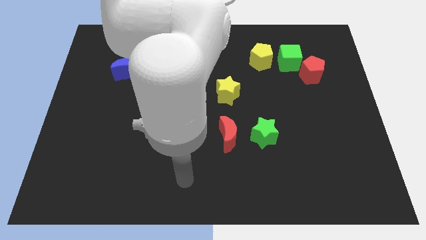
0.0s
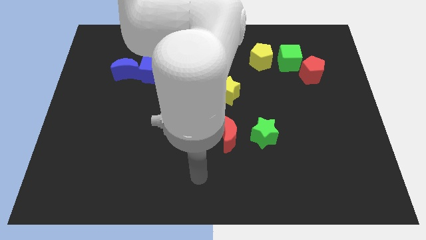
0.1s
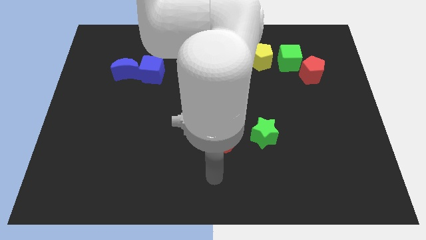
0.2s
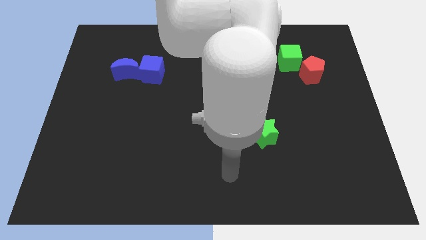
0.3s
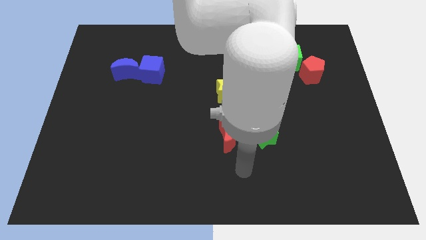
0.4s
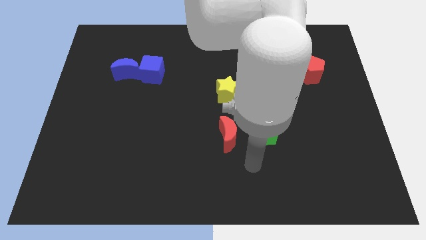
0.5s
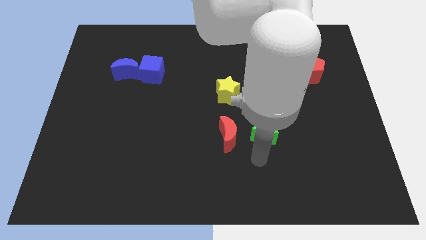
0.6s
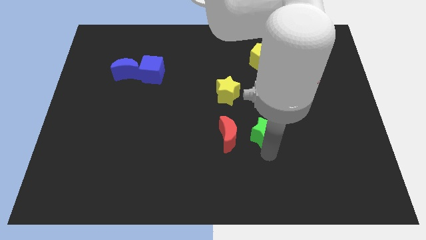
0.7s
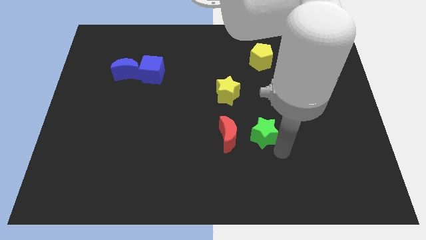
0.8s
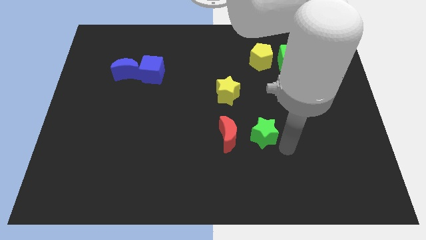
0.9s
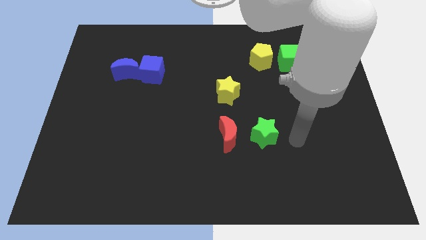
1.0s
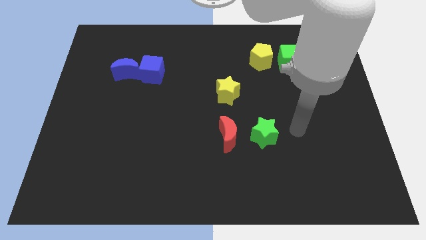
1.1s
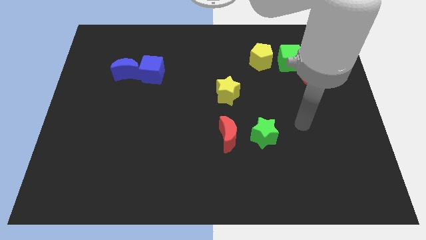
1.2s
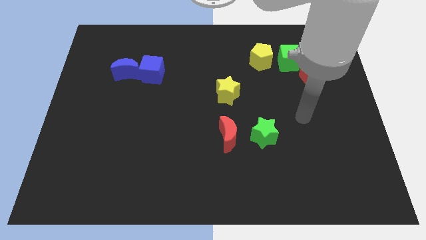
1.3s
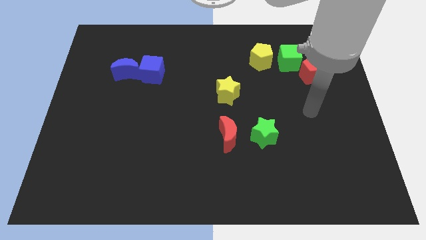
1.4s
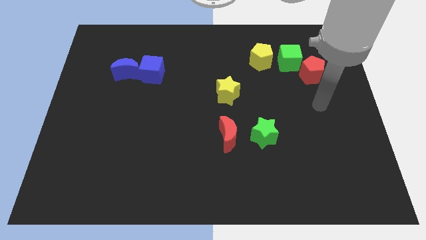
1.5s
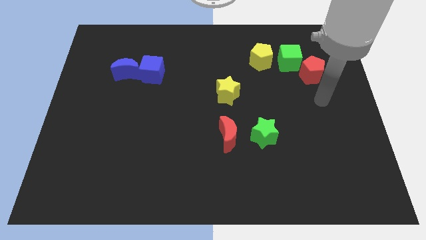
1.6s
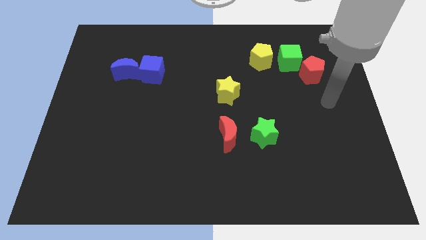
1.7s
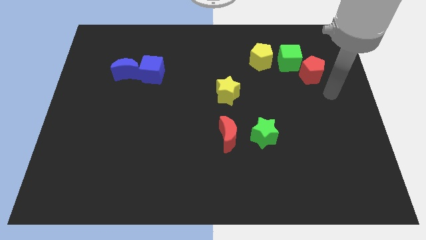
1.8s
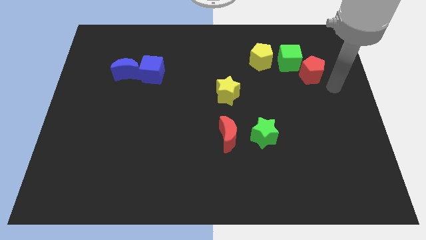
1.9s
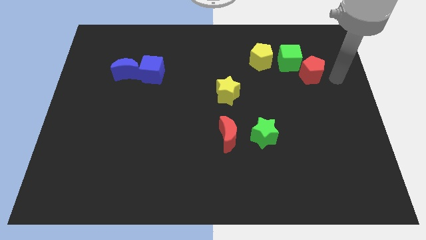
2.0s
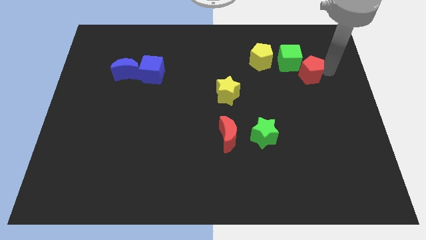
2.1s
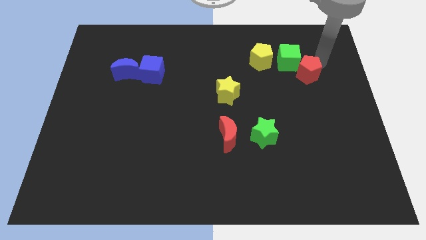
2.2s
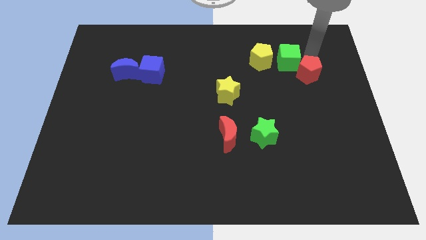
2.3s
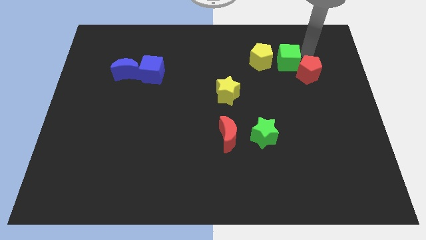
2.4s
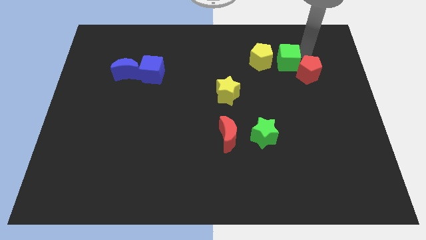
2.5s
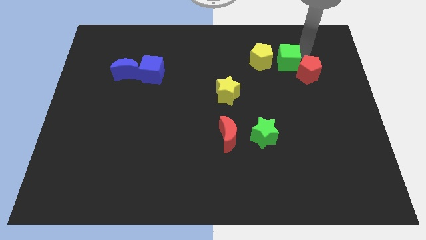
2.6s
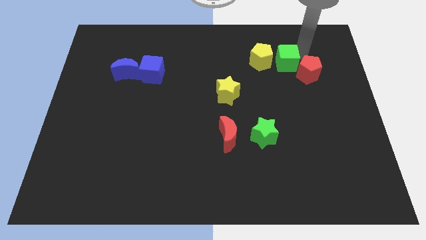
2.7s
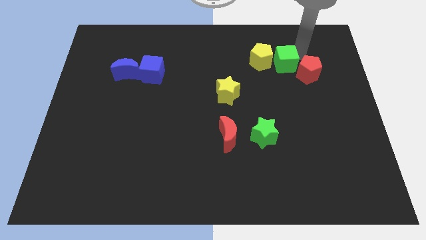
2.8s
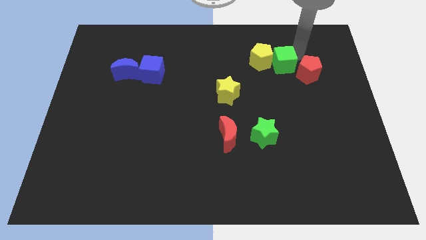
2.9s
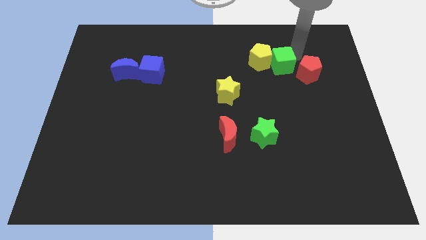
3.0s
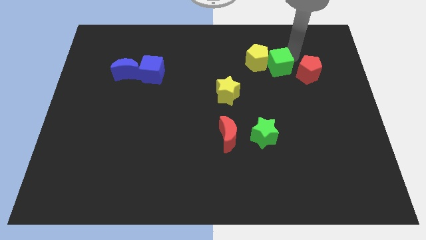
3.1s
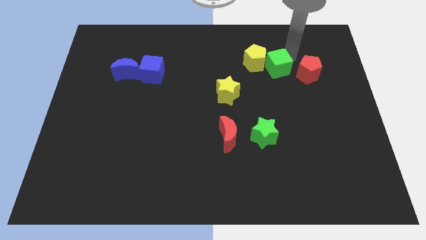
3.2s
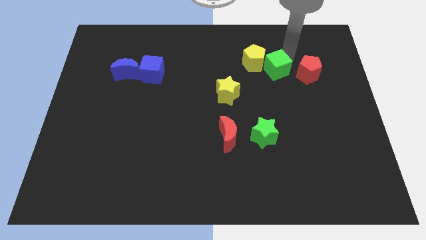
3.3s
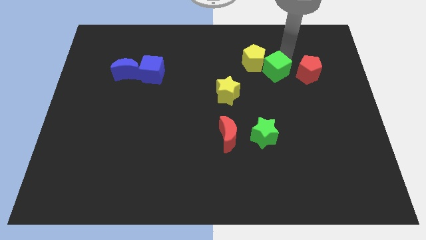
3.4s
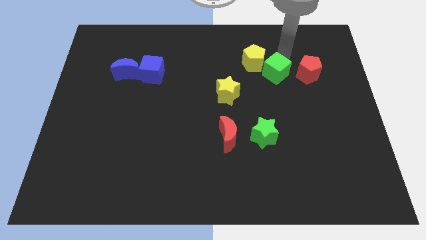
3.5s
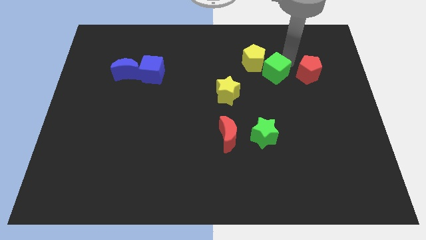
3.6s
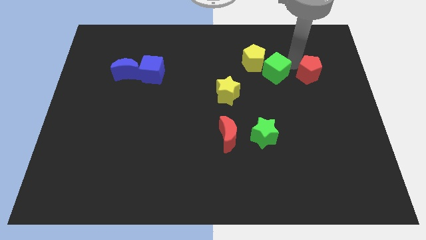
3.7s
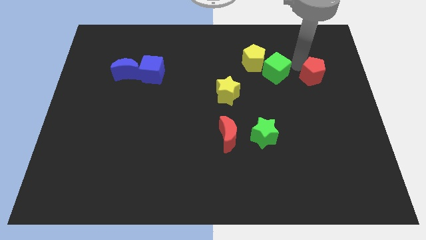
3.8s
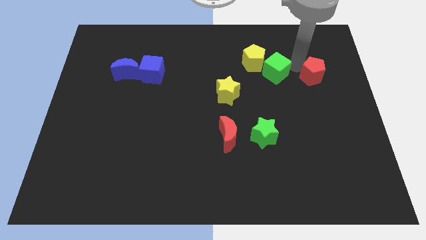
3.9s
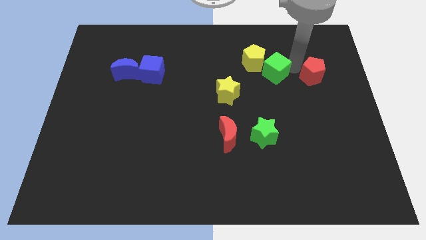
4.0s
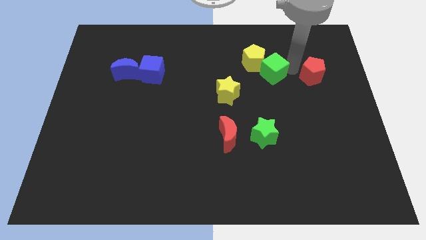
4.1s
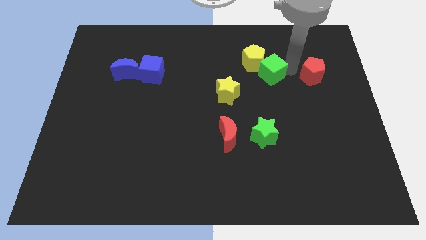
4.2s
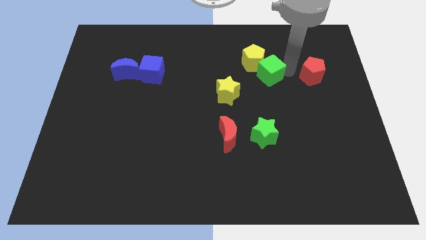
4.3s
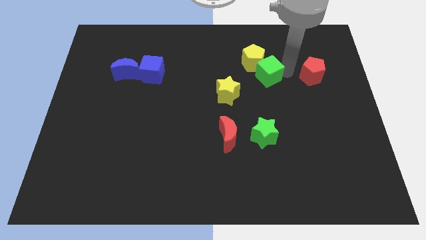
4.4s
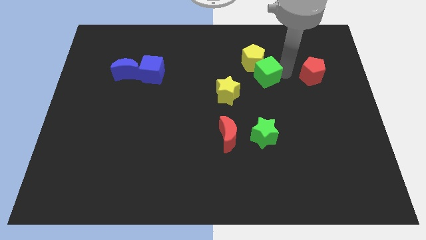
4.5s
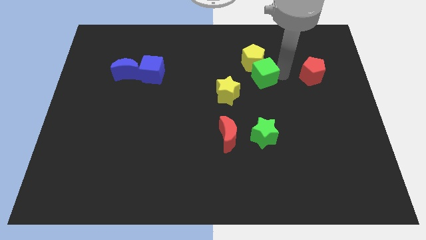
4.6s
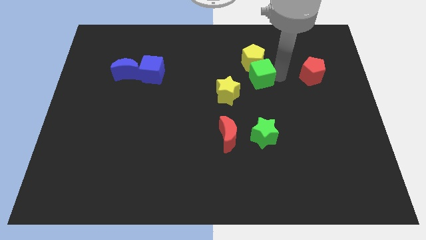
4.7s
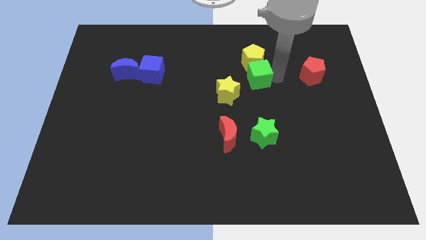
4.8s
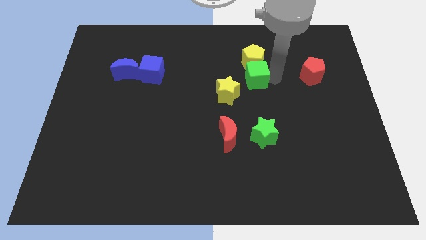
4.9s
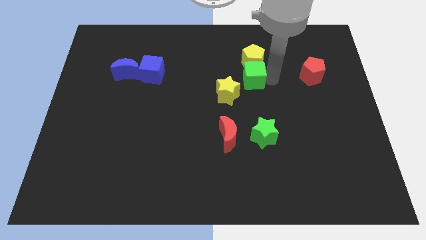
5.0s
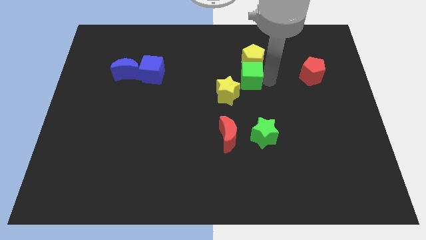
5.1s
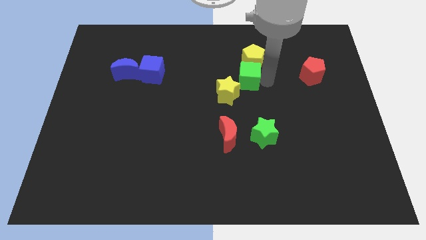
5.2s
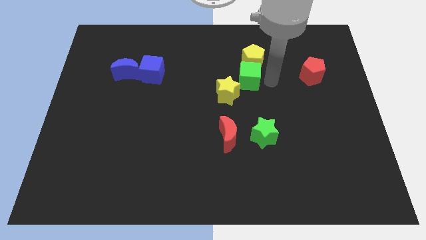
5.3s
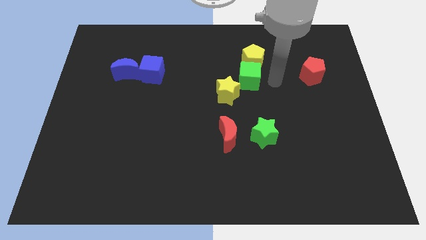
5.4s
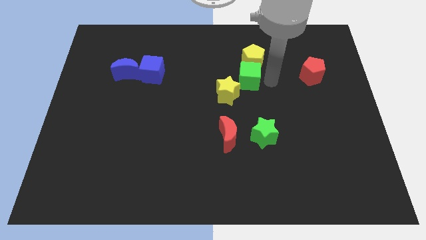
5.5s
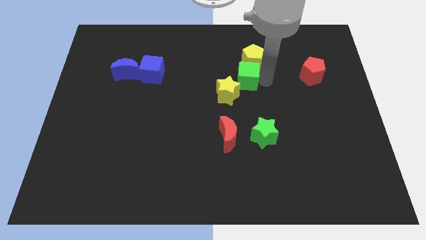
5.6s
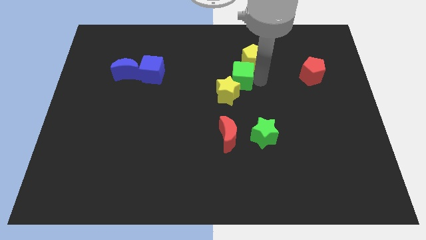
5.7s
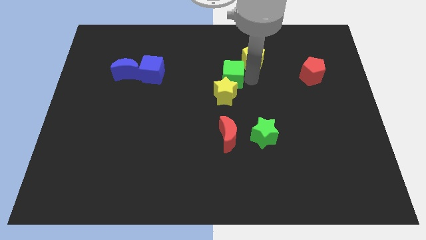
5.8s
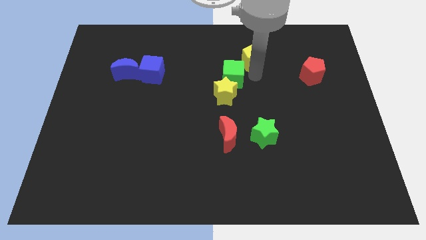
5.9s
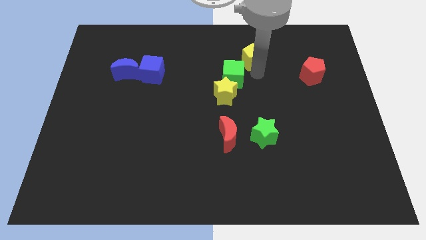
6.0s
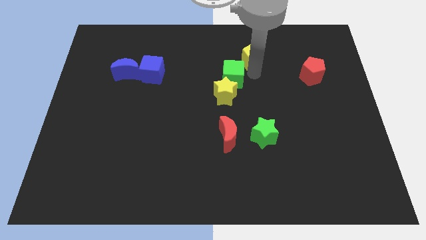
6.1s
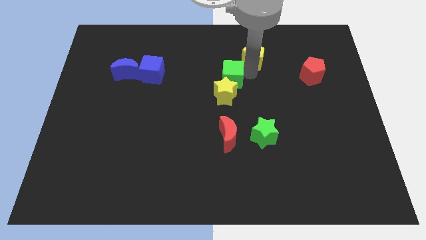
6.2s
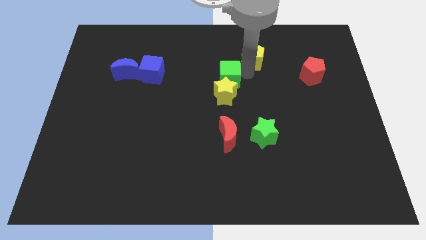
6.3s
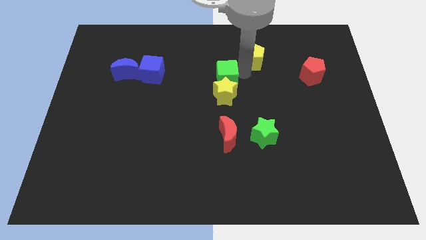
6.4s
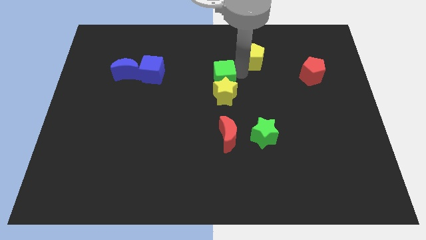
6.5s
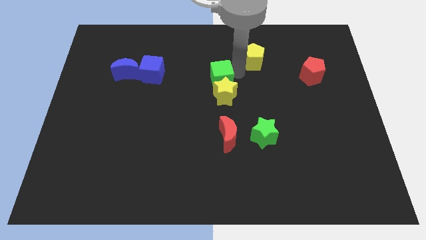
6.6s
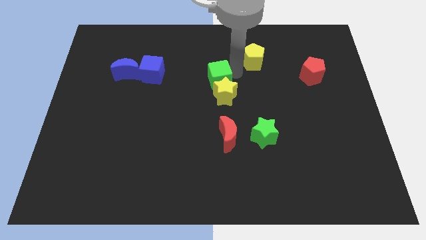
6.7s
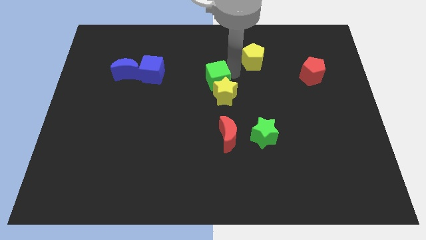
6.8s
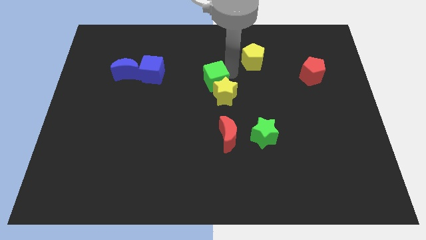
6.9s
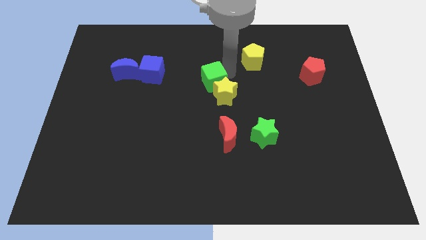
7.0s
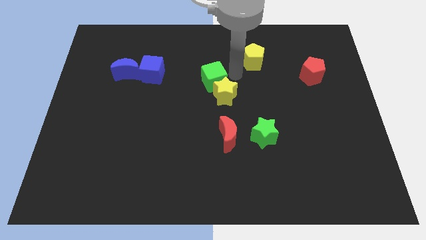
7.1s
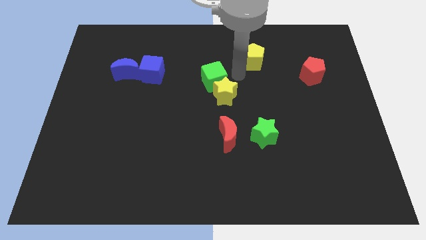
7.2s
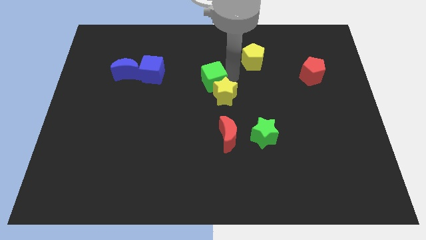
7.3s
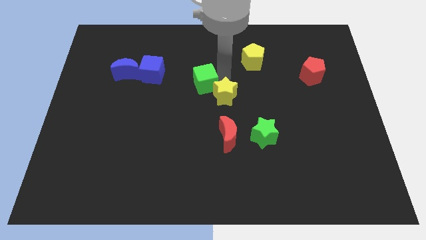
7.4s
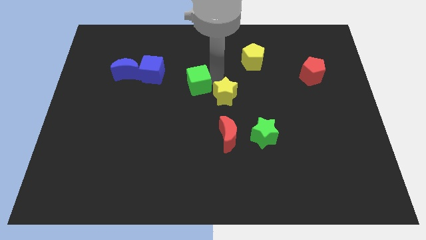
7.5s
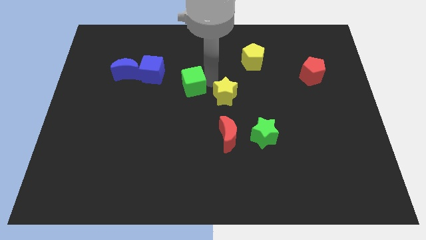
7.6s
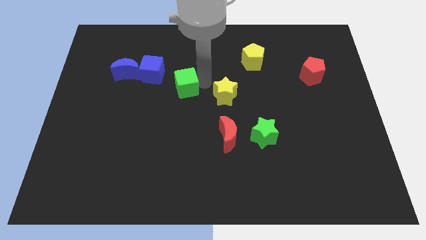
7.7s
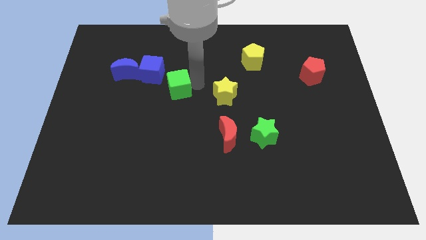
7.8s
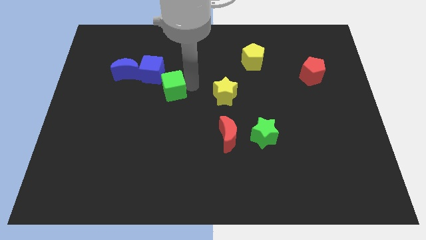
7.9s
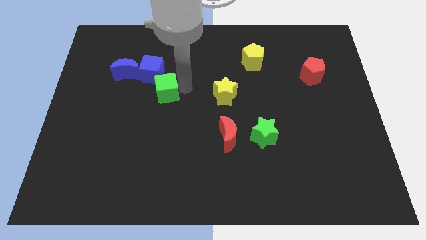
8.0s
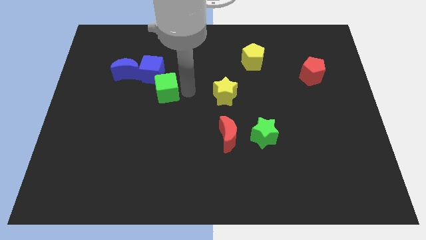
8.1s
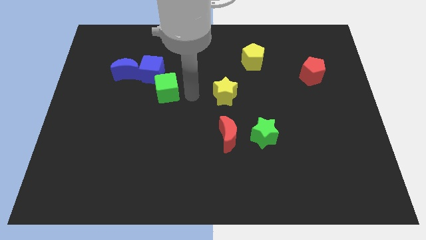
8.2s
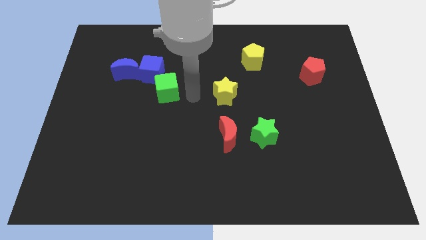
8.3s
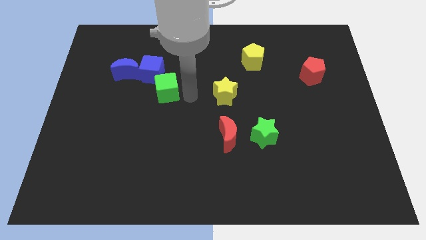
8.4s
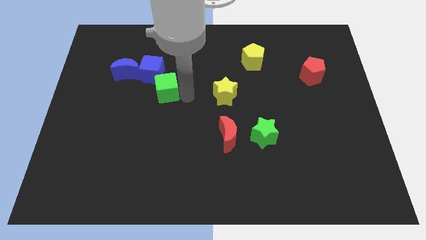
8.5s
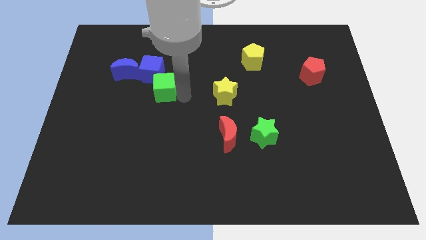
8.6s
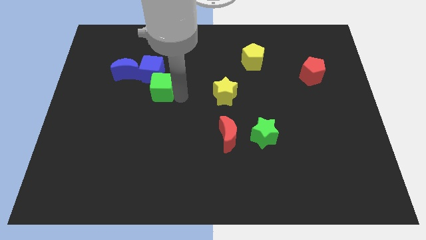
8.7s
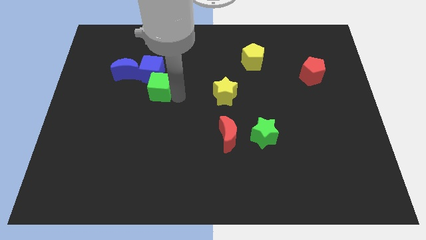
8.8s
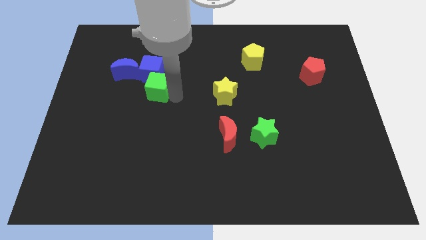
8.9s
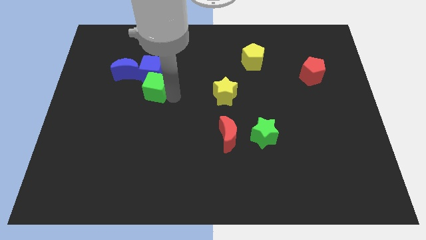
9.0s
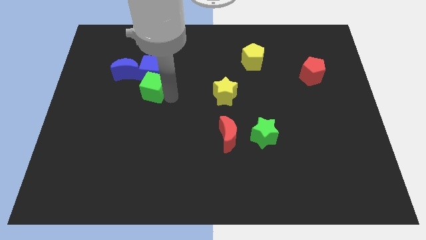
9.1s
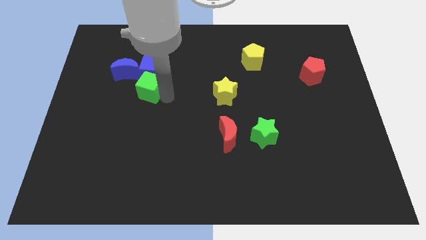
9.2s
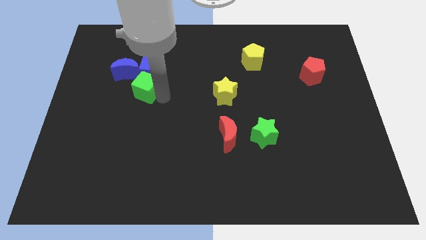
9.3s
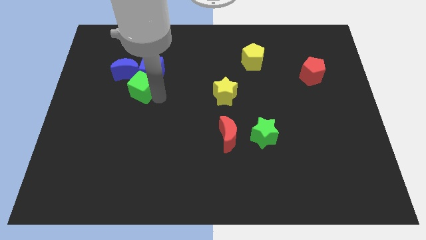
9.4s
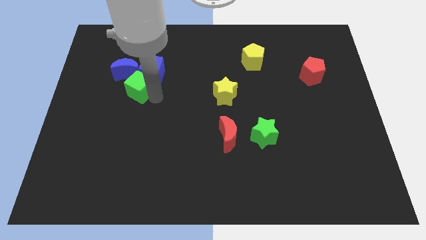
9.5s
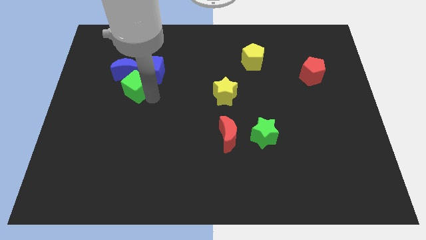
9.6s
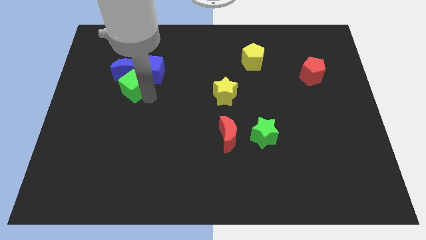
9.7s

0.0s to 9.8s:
put the green cube next to the blue moon
